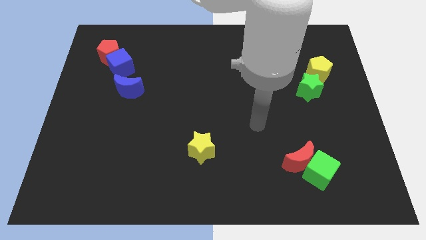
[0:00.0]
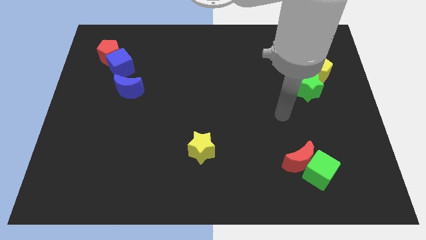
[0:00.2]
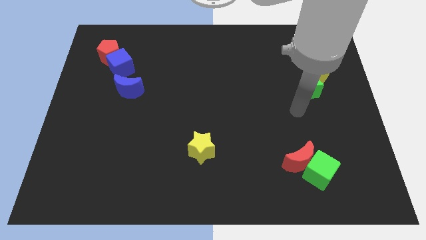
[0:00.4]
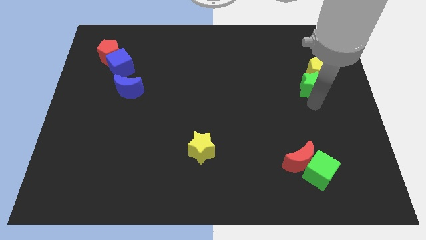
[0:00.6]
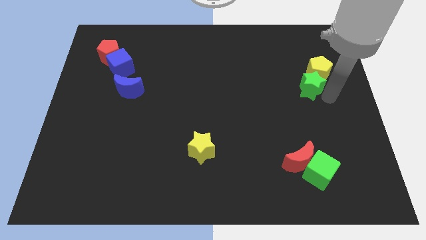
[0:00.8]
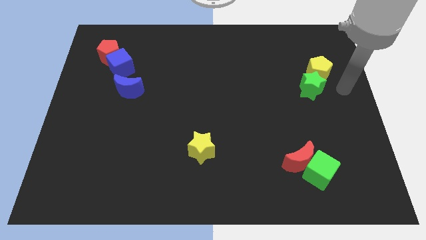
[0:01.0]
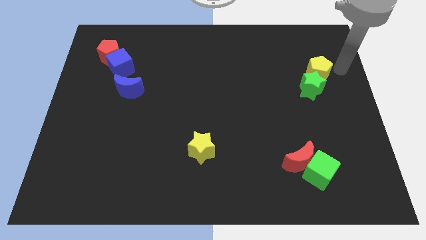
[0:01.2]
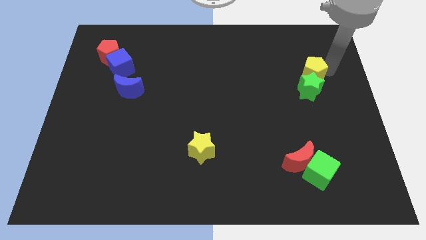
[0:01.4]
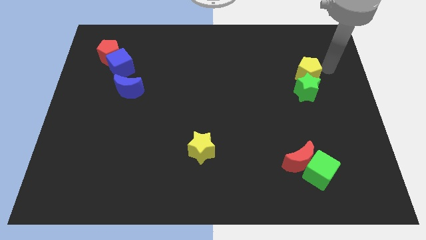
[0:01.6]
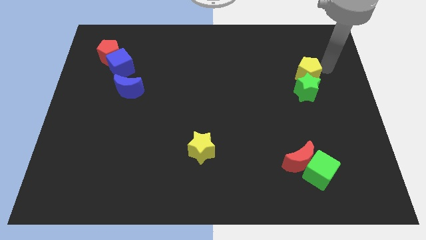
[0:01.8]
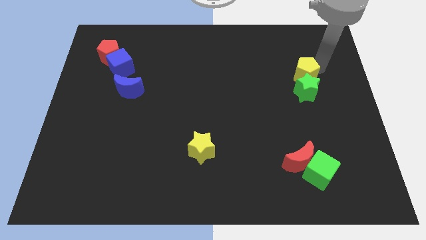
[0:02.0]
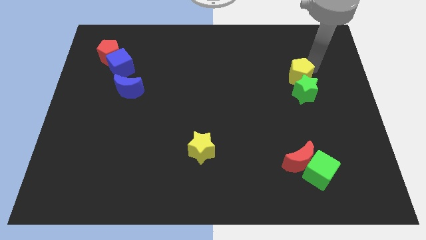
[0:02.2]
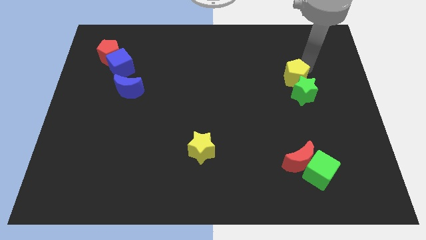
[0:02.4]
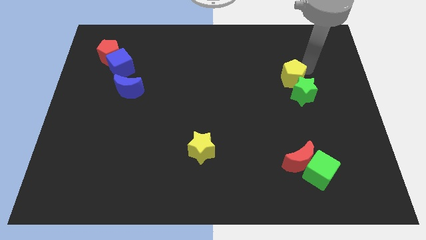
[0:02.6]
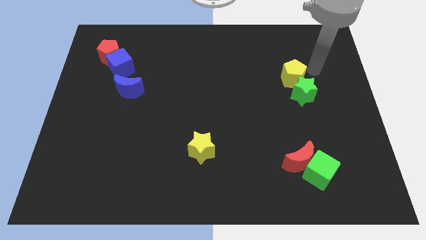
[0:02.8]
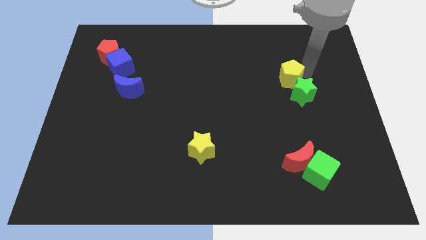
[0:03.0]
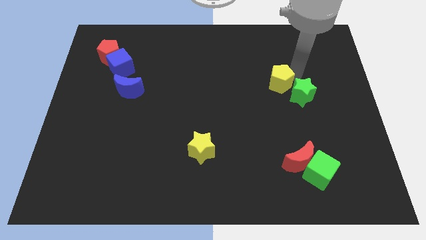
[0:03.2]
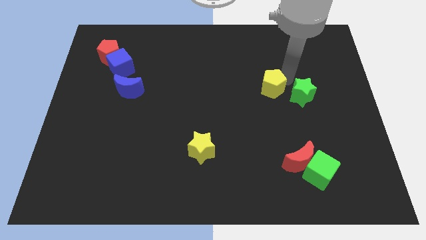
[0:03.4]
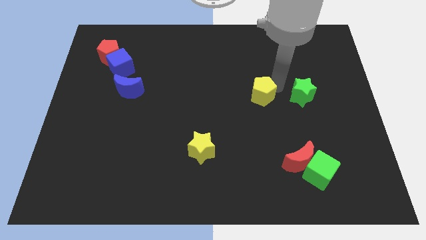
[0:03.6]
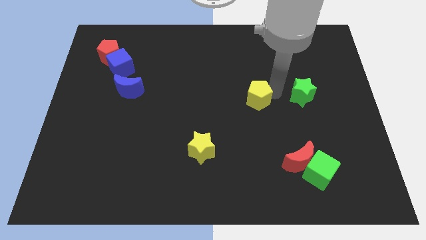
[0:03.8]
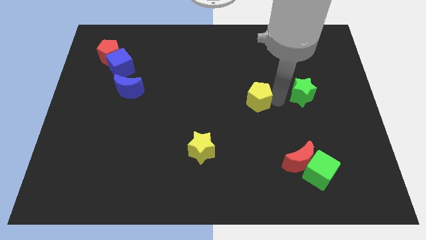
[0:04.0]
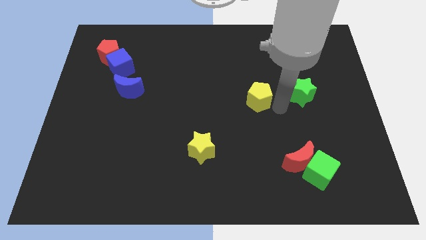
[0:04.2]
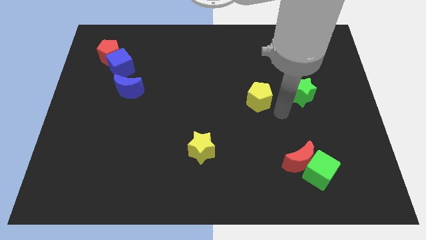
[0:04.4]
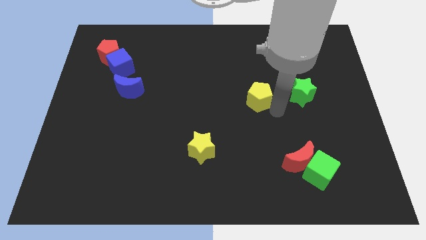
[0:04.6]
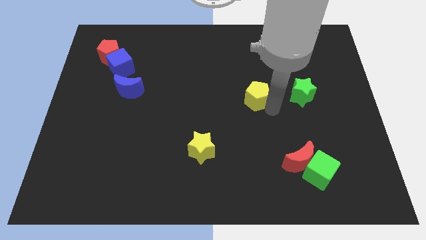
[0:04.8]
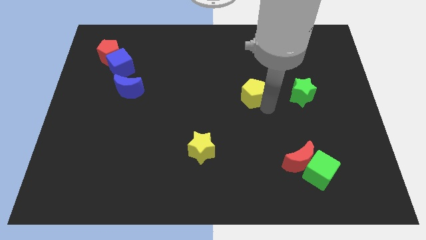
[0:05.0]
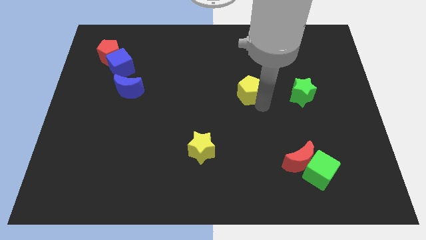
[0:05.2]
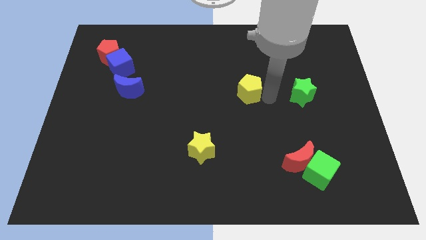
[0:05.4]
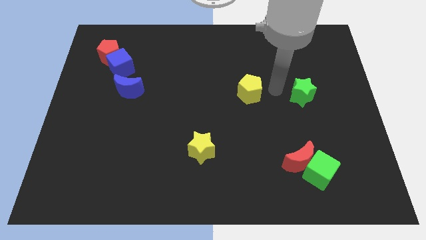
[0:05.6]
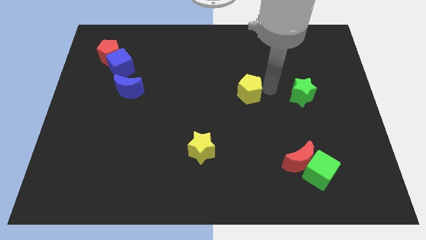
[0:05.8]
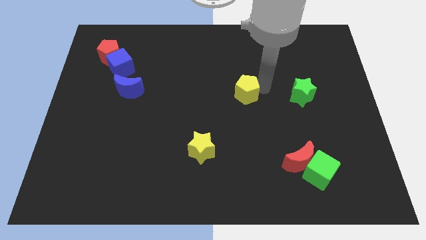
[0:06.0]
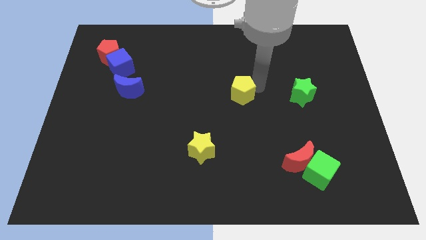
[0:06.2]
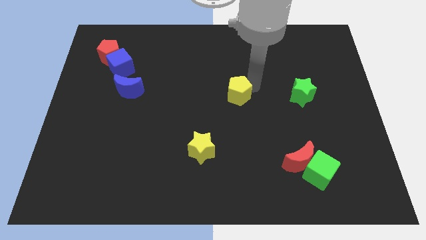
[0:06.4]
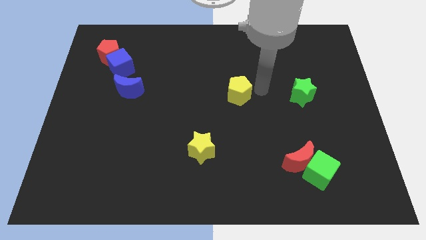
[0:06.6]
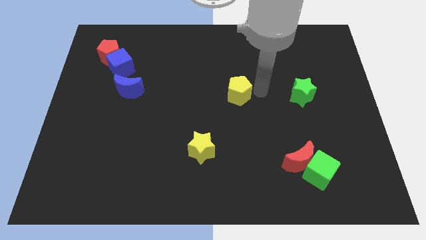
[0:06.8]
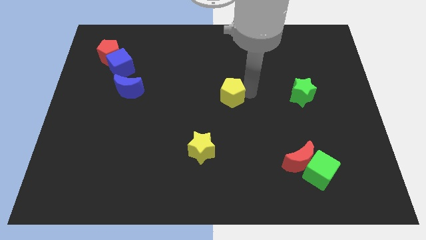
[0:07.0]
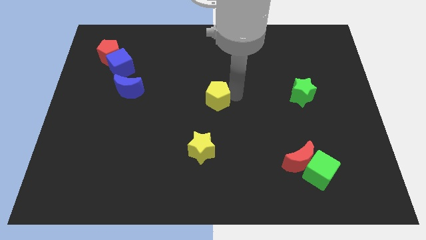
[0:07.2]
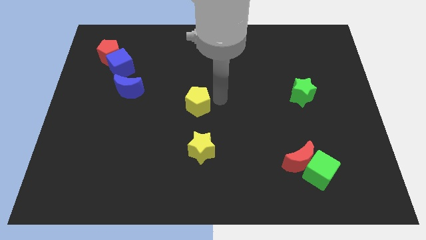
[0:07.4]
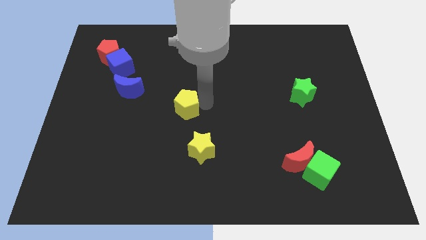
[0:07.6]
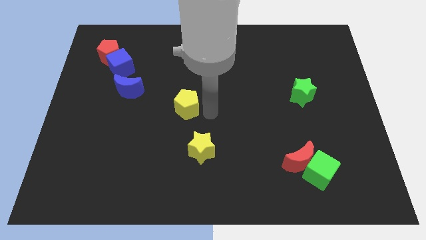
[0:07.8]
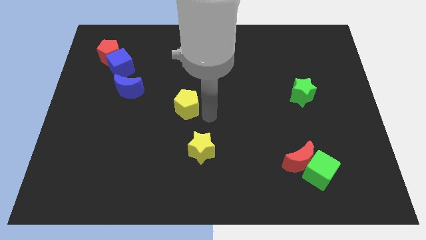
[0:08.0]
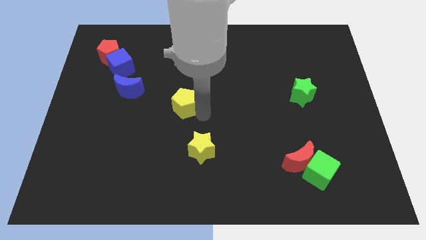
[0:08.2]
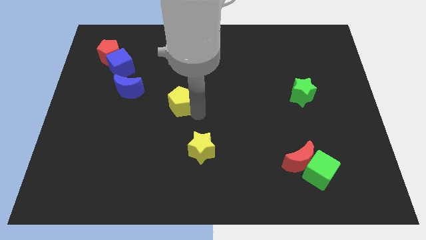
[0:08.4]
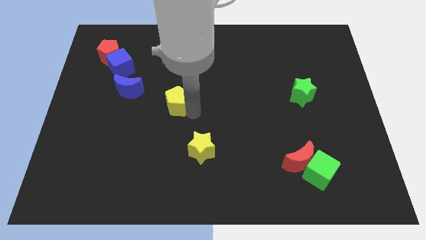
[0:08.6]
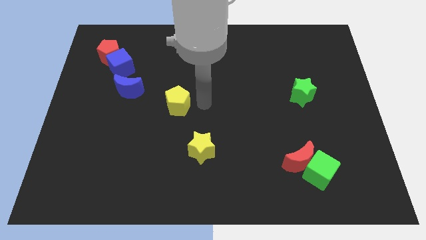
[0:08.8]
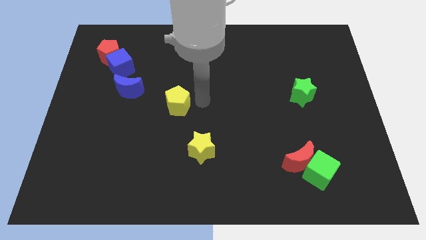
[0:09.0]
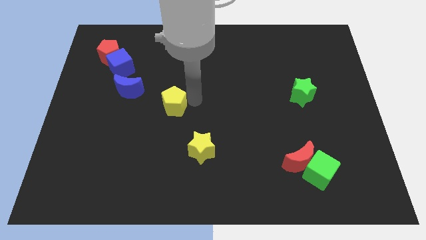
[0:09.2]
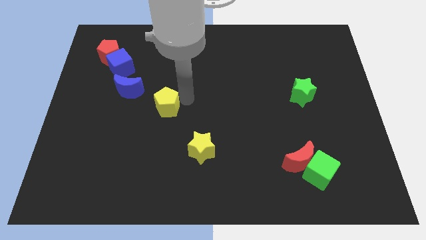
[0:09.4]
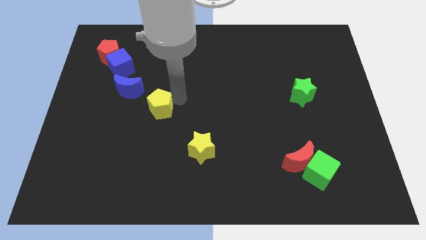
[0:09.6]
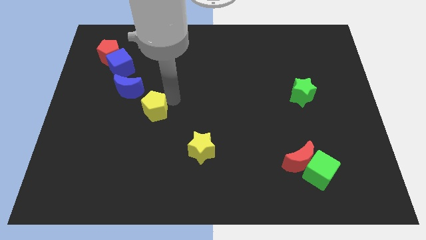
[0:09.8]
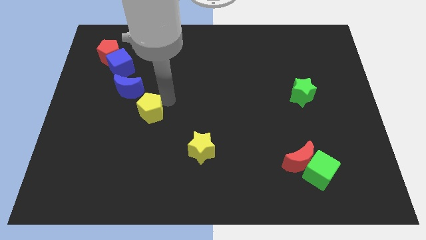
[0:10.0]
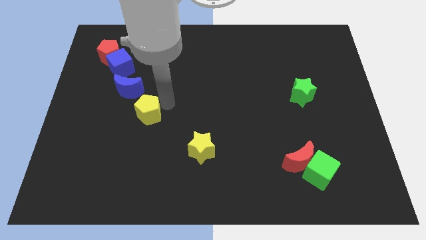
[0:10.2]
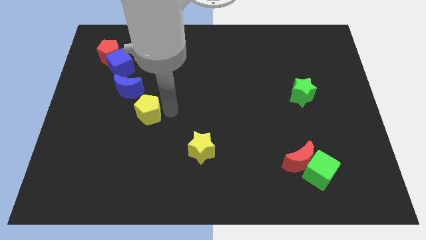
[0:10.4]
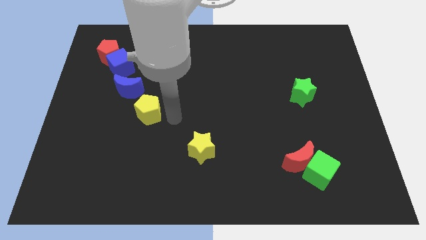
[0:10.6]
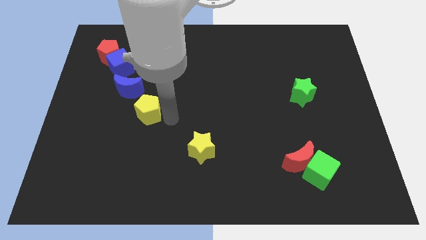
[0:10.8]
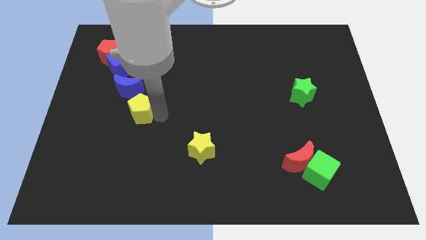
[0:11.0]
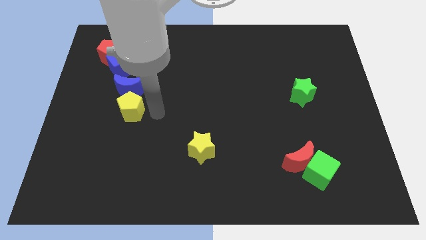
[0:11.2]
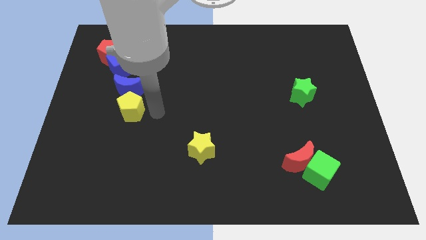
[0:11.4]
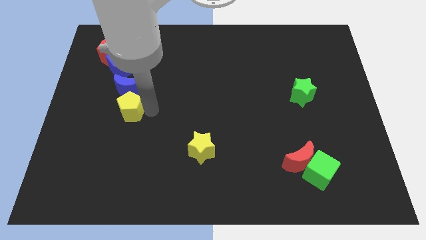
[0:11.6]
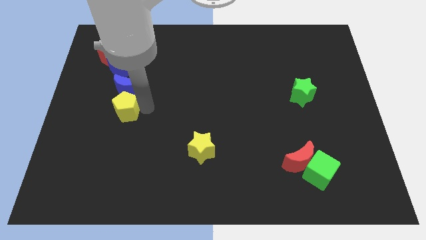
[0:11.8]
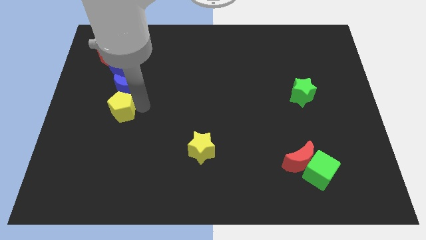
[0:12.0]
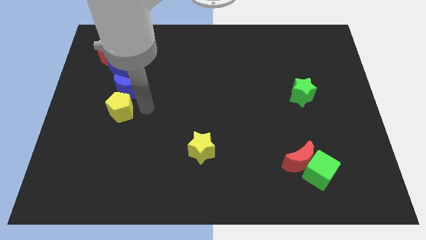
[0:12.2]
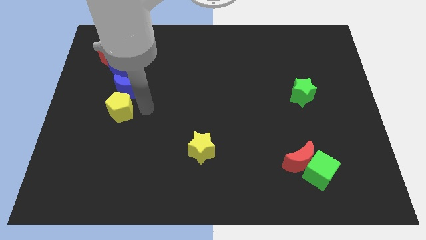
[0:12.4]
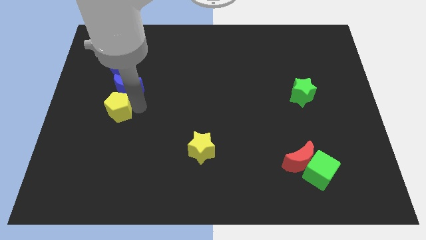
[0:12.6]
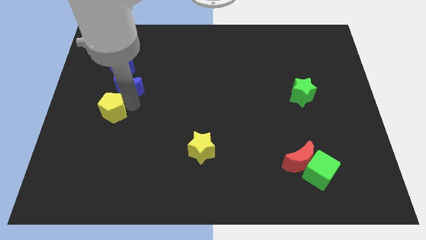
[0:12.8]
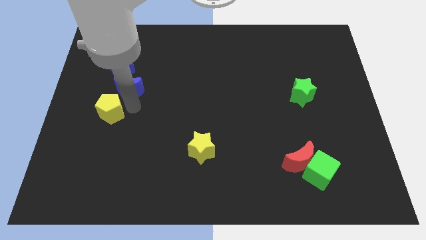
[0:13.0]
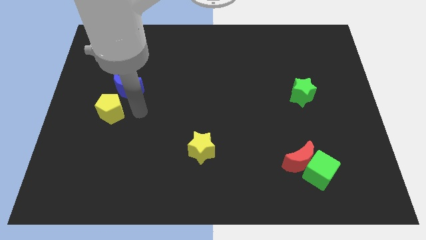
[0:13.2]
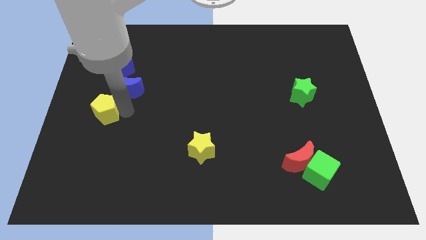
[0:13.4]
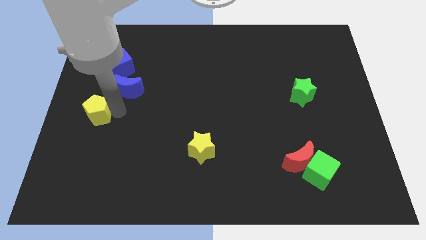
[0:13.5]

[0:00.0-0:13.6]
slide the yellow pentagon to the left side of the board
